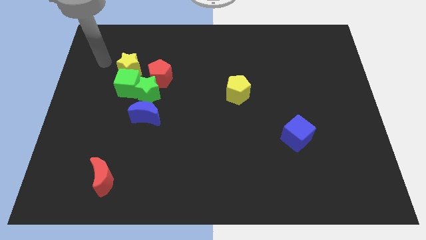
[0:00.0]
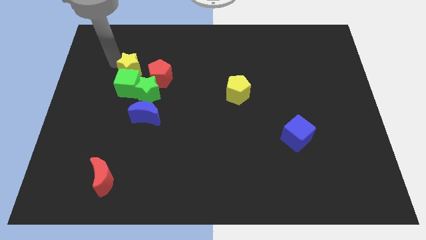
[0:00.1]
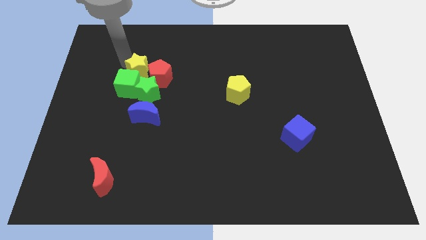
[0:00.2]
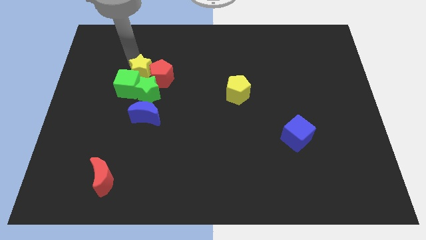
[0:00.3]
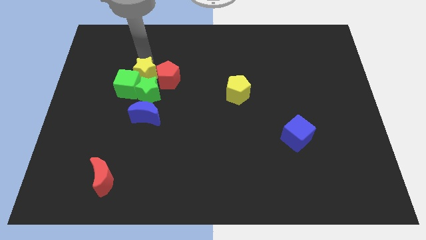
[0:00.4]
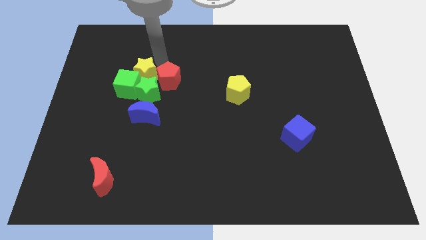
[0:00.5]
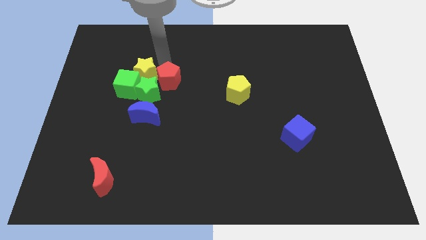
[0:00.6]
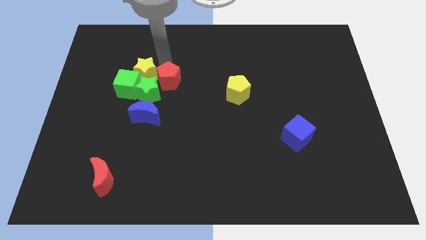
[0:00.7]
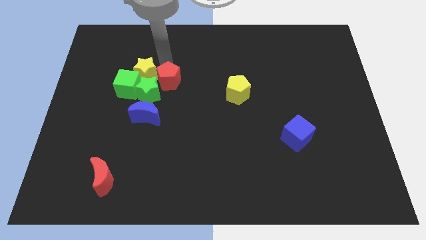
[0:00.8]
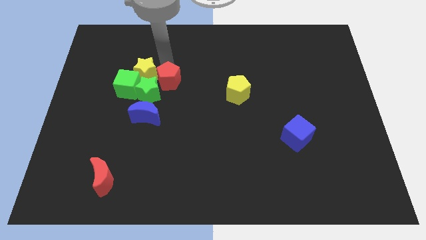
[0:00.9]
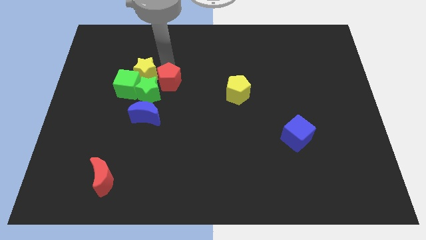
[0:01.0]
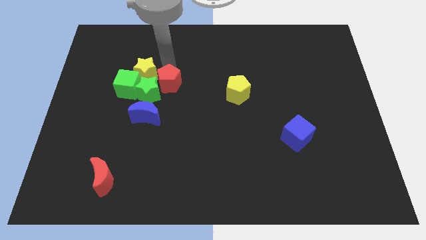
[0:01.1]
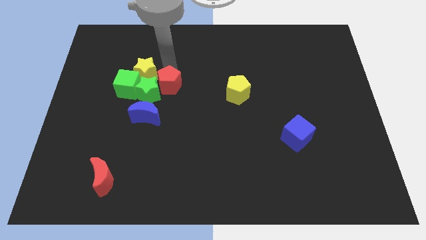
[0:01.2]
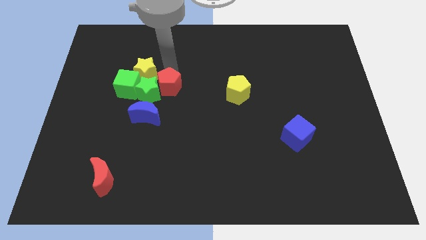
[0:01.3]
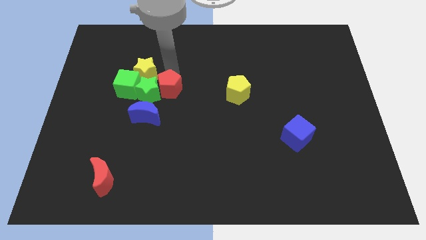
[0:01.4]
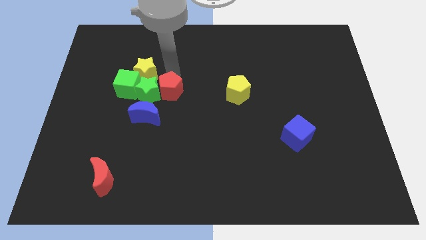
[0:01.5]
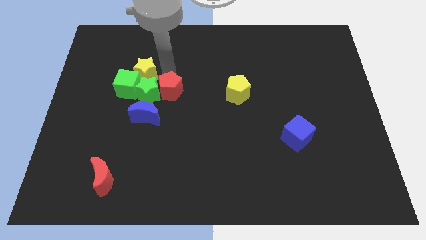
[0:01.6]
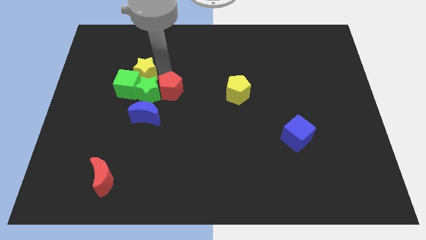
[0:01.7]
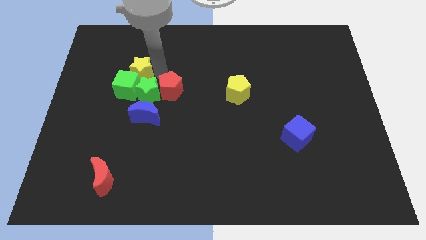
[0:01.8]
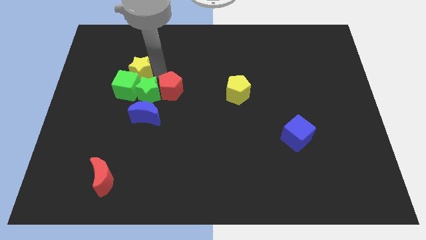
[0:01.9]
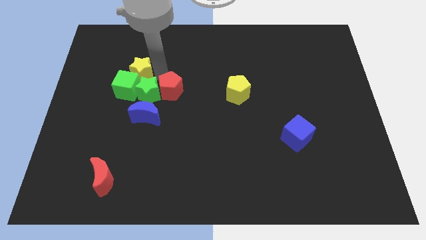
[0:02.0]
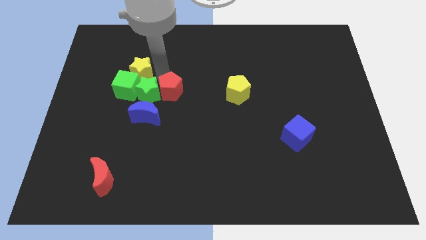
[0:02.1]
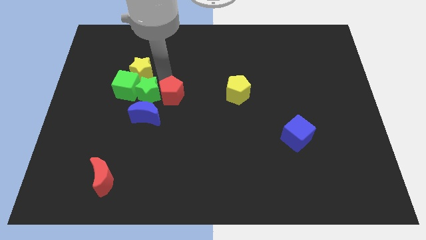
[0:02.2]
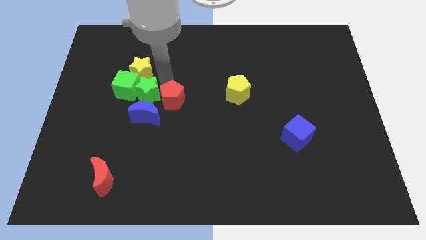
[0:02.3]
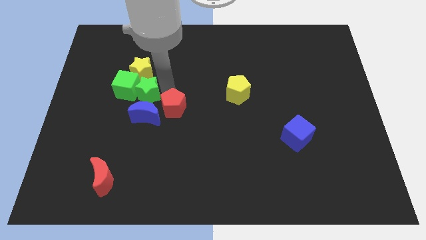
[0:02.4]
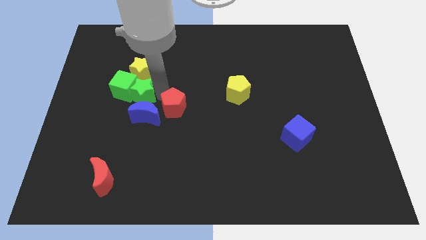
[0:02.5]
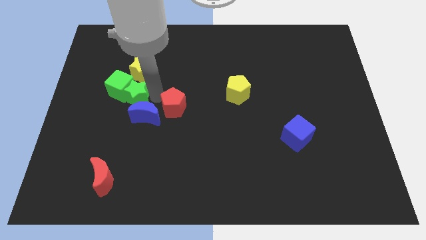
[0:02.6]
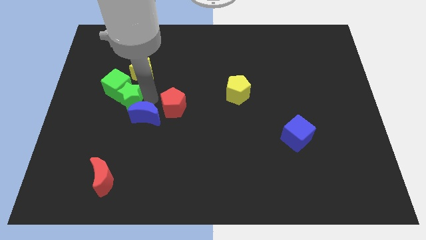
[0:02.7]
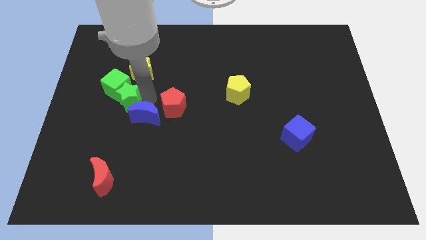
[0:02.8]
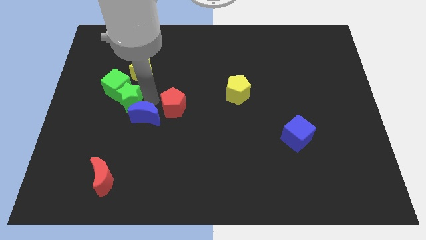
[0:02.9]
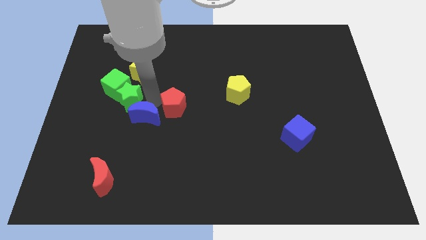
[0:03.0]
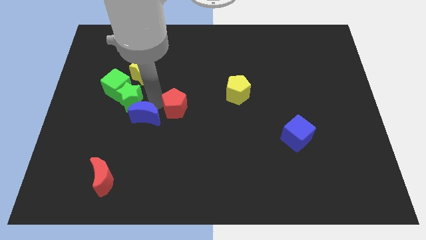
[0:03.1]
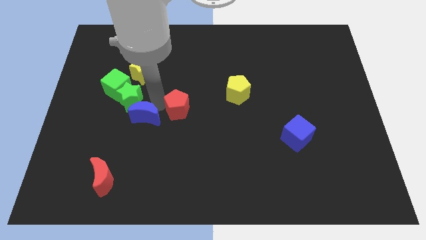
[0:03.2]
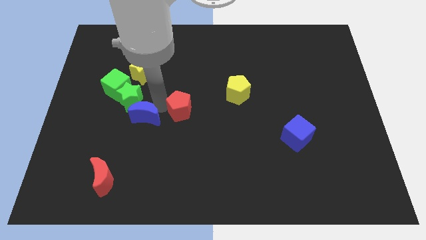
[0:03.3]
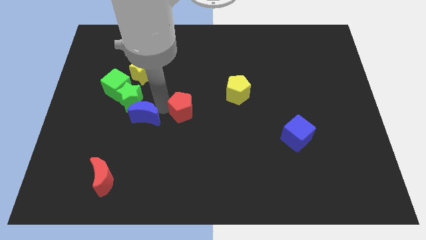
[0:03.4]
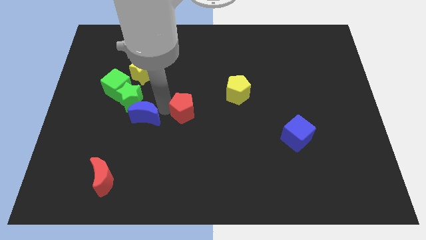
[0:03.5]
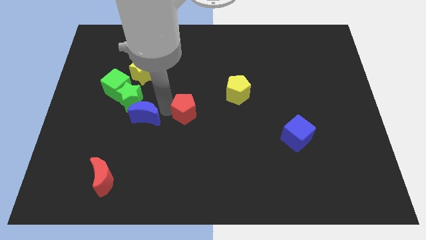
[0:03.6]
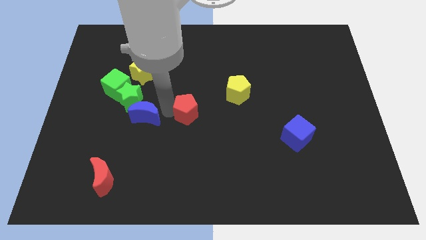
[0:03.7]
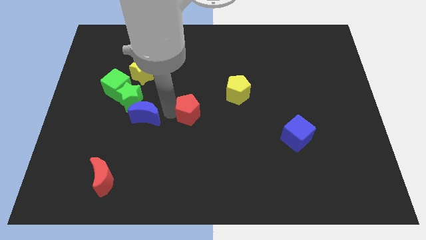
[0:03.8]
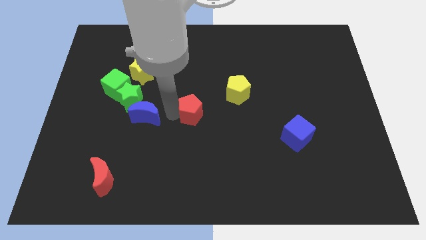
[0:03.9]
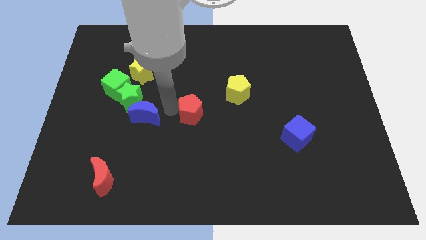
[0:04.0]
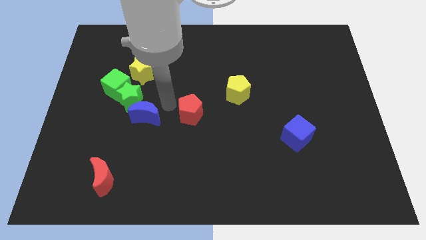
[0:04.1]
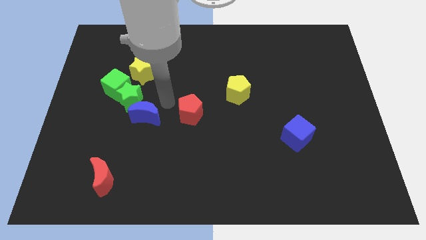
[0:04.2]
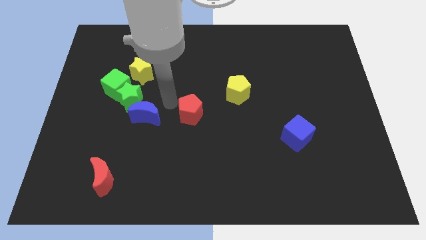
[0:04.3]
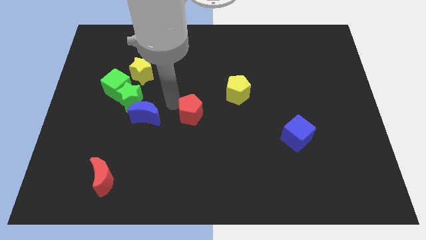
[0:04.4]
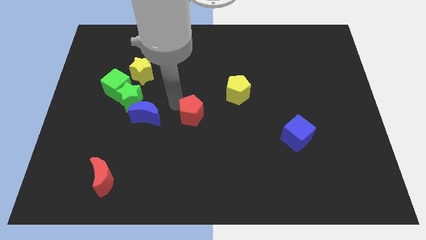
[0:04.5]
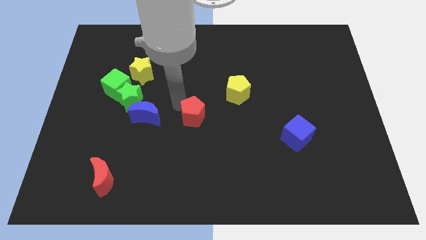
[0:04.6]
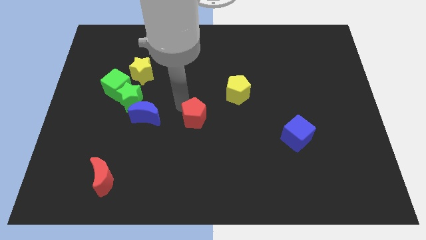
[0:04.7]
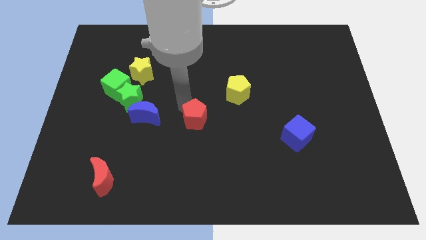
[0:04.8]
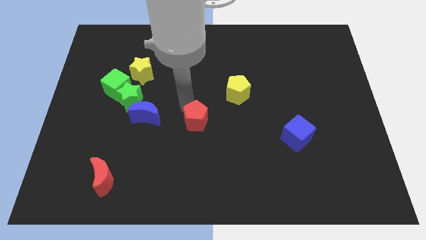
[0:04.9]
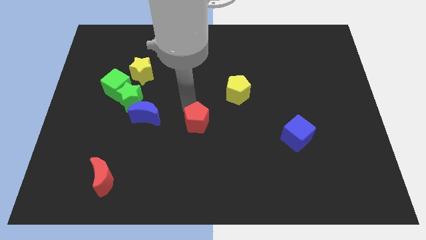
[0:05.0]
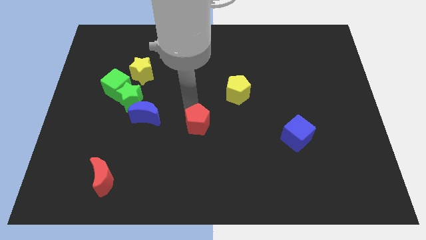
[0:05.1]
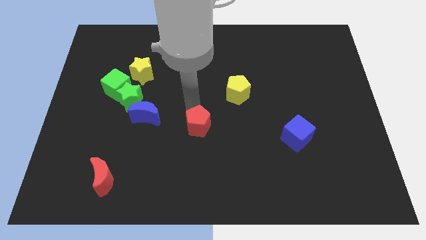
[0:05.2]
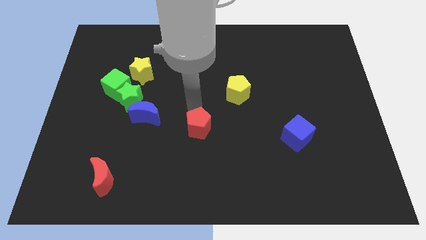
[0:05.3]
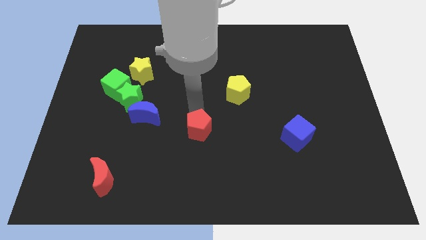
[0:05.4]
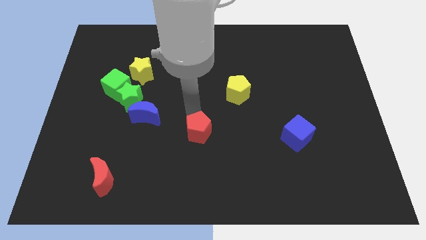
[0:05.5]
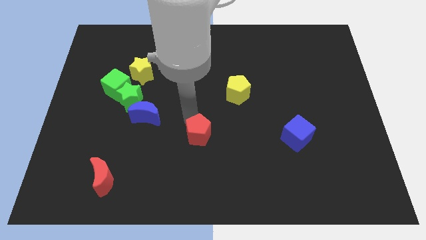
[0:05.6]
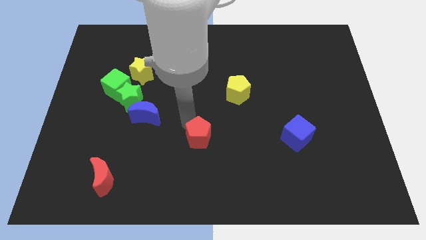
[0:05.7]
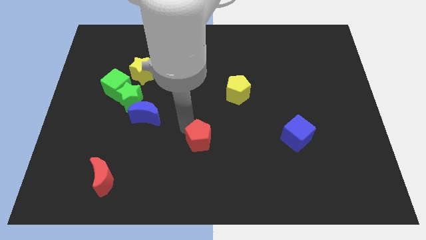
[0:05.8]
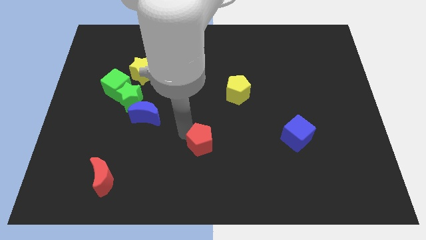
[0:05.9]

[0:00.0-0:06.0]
move the red pentagon diagonally downwards and right

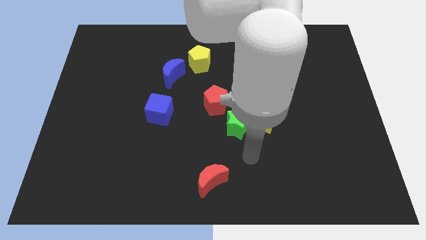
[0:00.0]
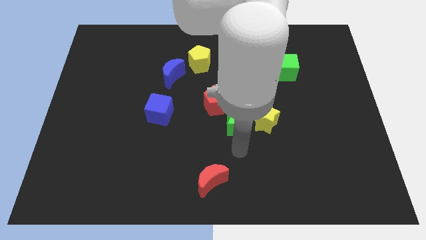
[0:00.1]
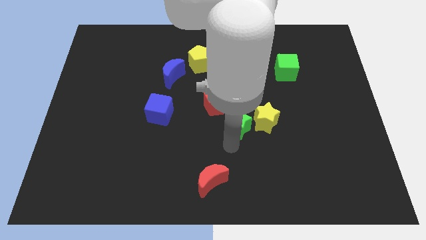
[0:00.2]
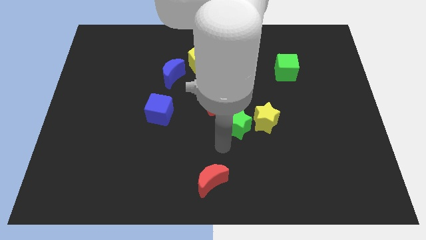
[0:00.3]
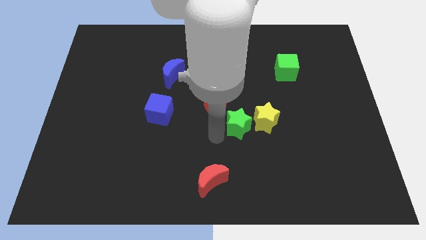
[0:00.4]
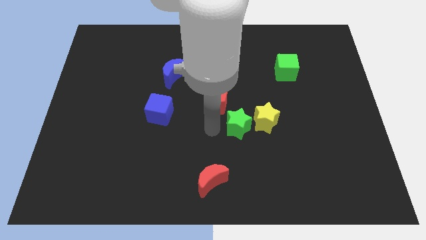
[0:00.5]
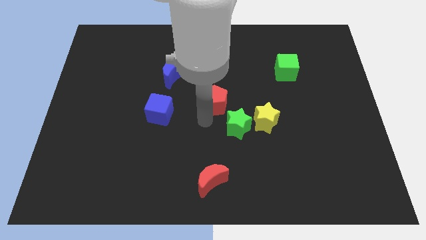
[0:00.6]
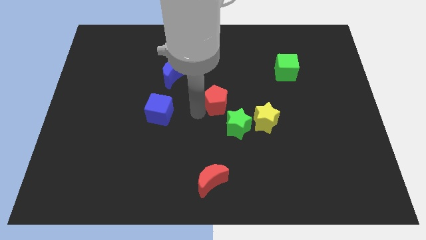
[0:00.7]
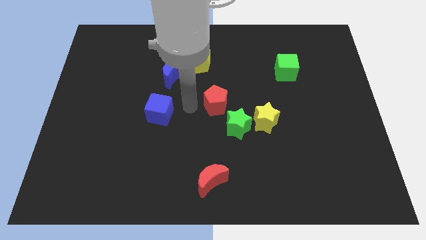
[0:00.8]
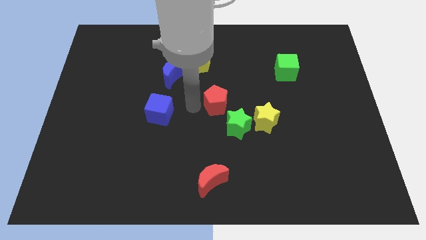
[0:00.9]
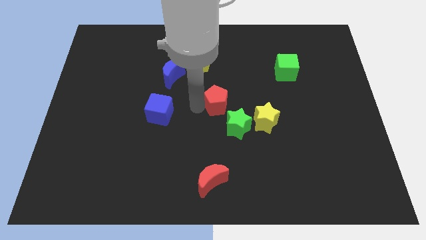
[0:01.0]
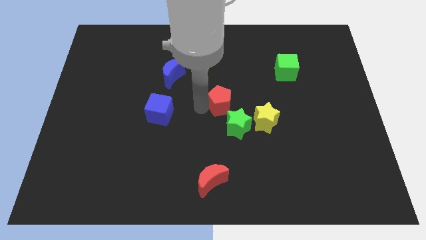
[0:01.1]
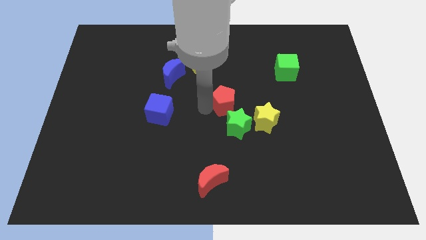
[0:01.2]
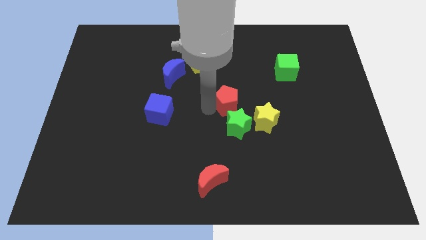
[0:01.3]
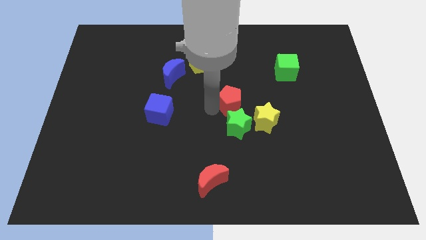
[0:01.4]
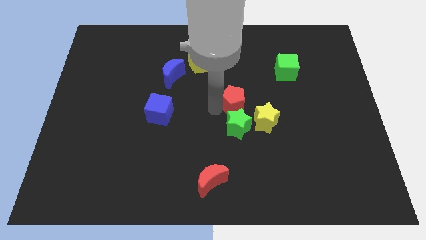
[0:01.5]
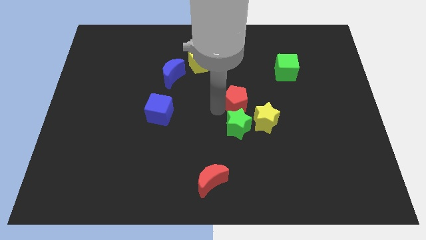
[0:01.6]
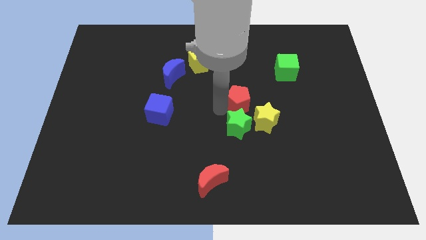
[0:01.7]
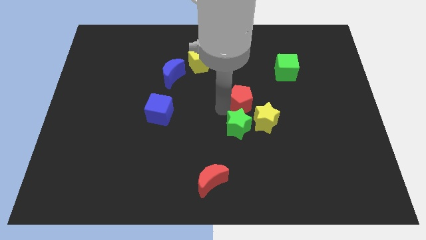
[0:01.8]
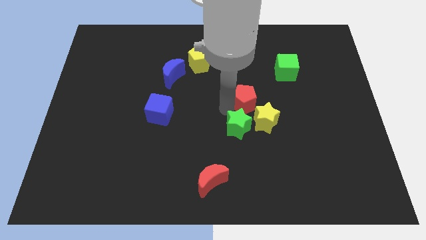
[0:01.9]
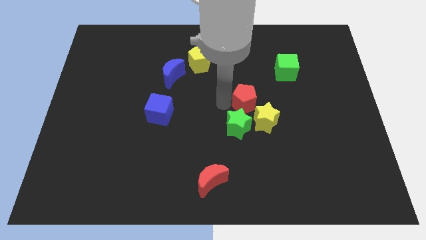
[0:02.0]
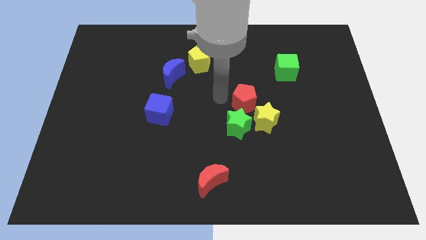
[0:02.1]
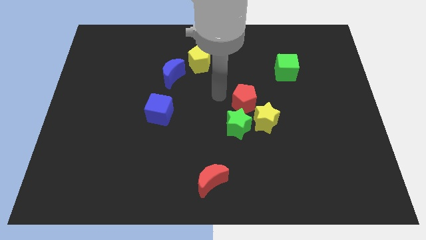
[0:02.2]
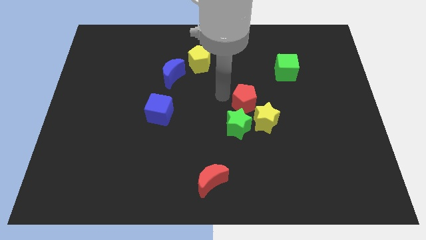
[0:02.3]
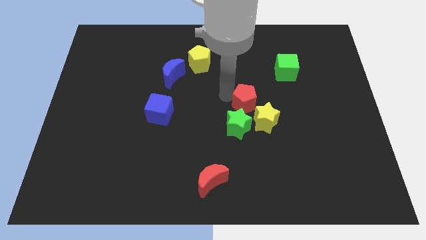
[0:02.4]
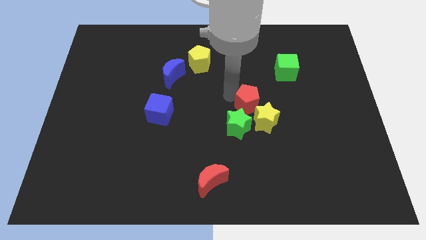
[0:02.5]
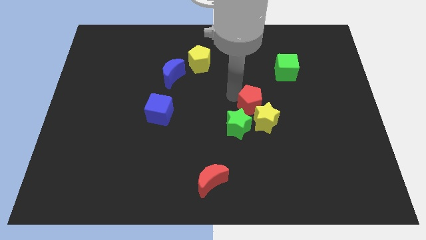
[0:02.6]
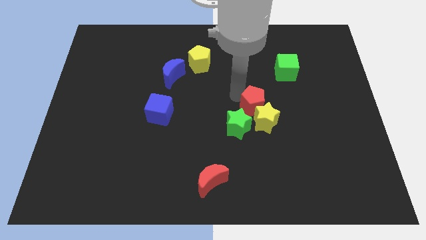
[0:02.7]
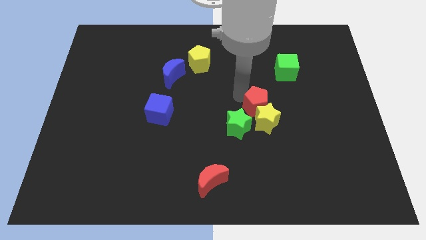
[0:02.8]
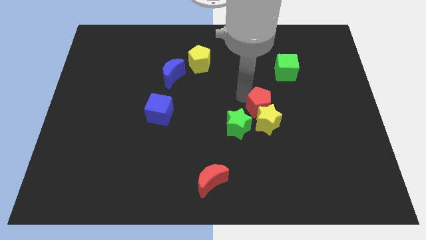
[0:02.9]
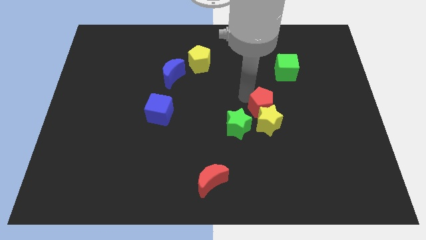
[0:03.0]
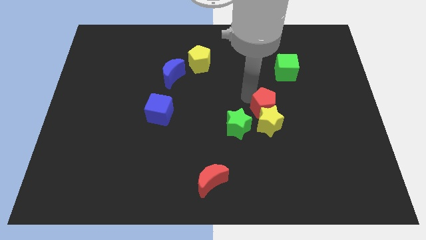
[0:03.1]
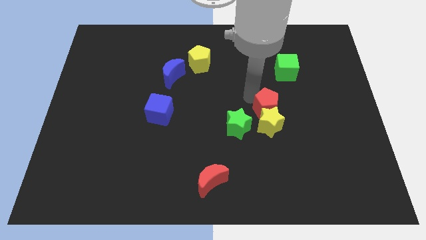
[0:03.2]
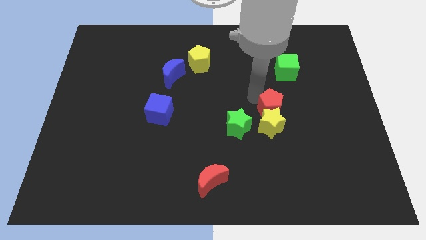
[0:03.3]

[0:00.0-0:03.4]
slightly move the red pentagon down and to the right diagonally
